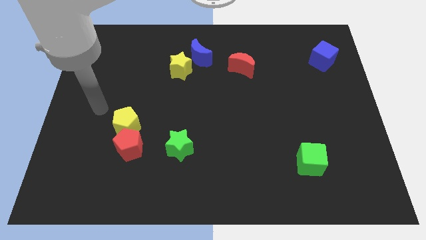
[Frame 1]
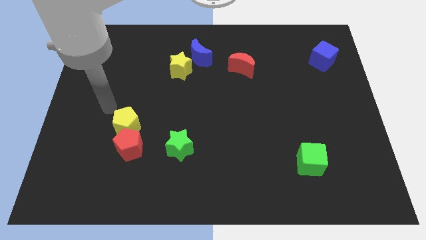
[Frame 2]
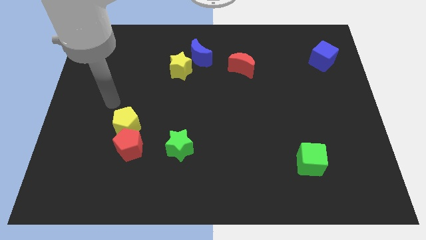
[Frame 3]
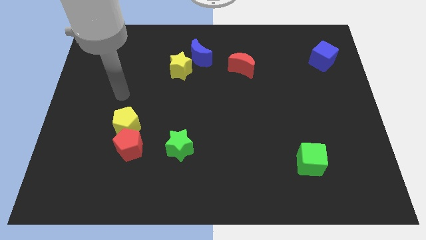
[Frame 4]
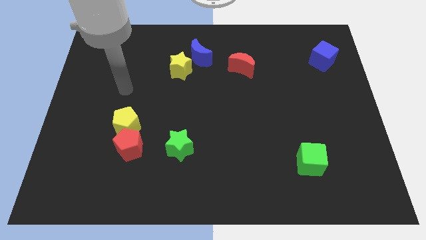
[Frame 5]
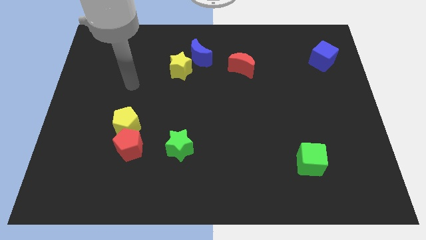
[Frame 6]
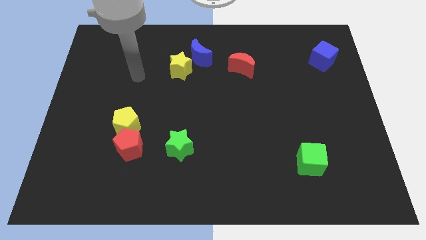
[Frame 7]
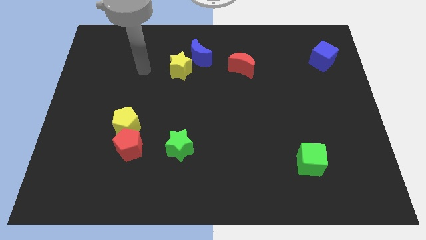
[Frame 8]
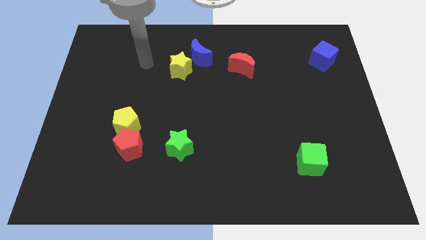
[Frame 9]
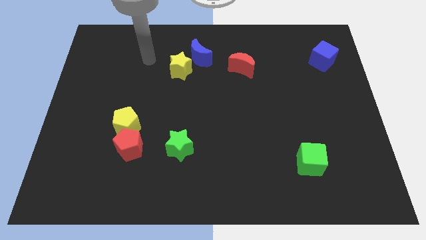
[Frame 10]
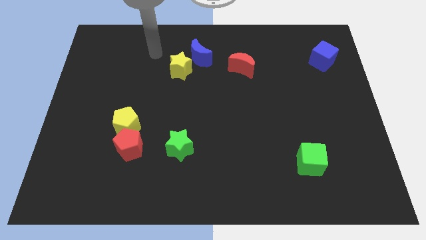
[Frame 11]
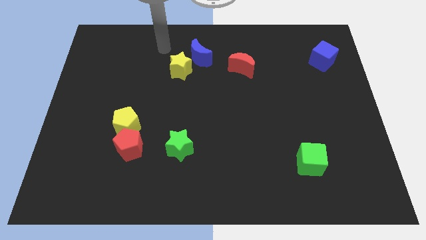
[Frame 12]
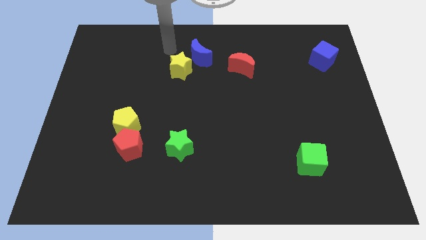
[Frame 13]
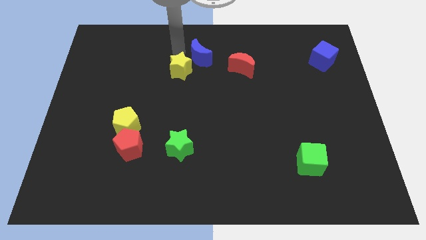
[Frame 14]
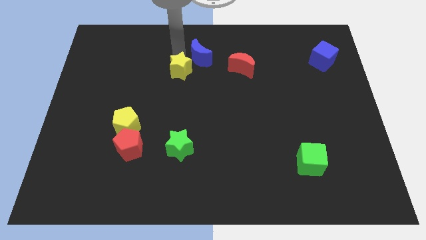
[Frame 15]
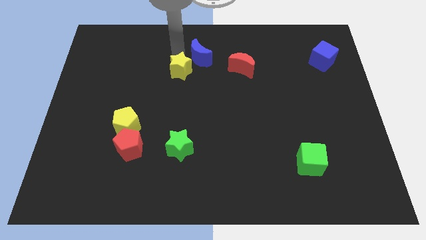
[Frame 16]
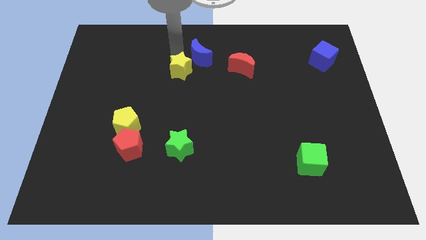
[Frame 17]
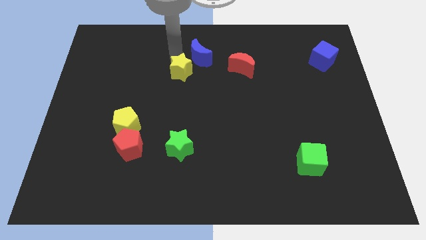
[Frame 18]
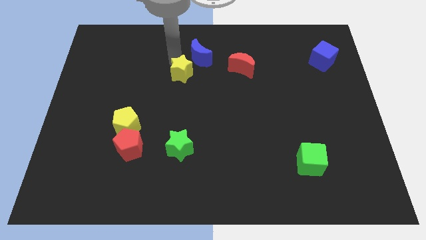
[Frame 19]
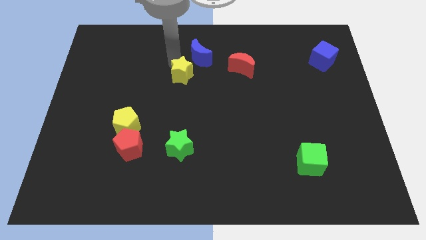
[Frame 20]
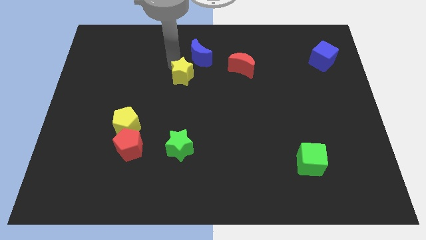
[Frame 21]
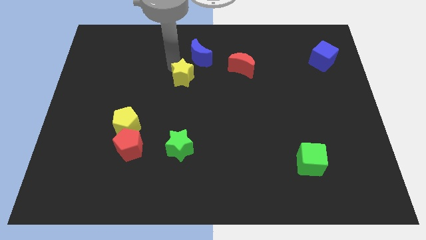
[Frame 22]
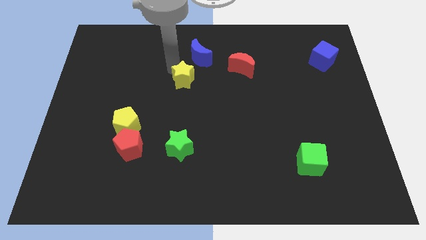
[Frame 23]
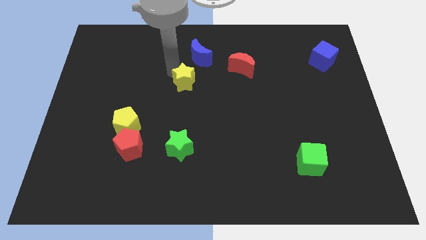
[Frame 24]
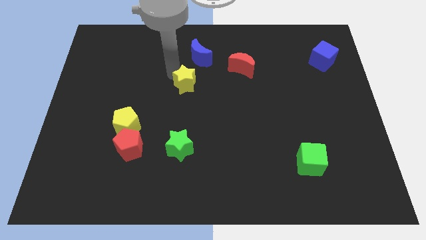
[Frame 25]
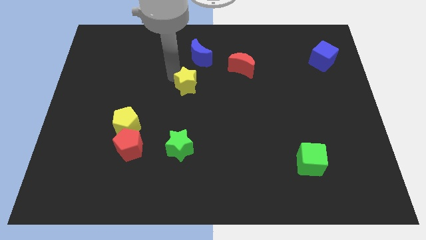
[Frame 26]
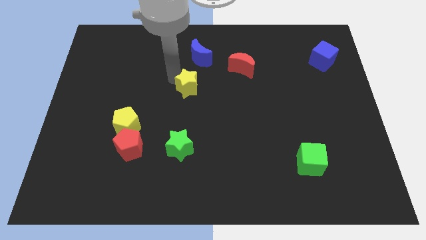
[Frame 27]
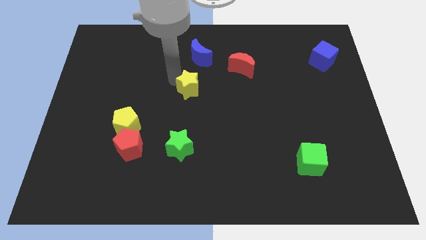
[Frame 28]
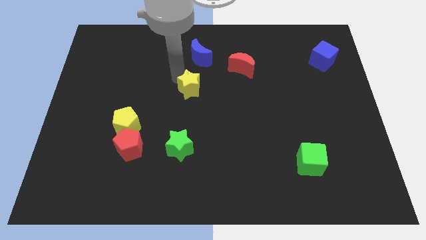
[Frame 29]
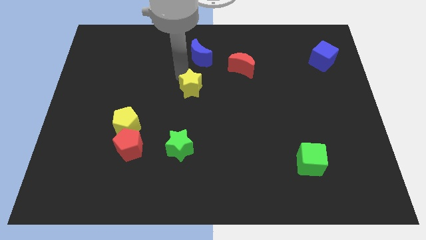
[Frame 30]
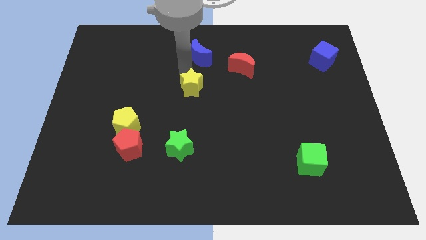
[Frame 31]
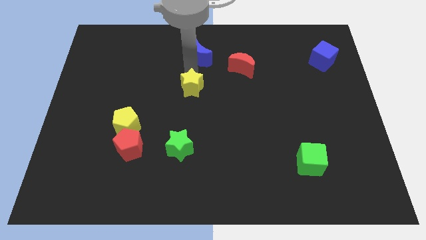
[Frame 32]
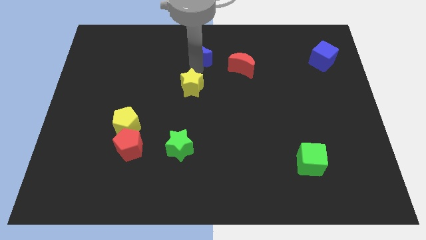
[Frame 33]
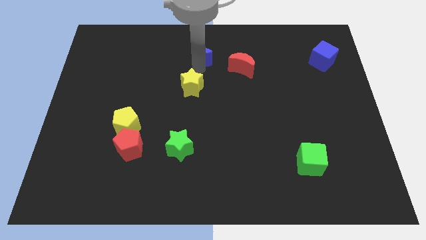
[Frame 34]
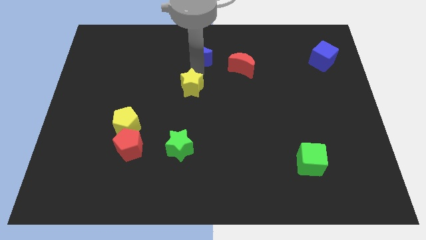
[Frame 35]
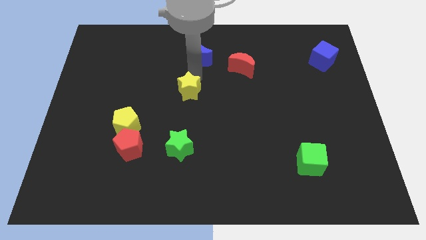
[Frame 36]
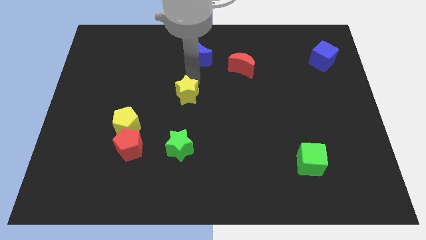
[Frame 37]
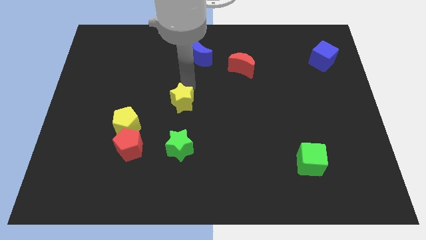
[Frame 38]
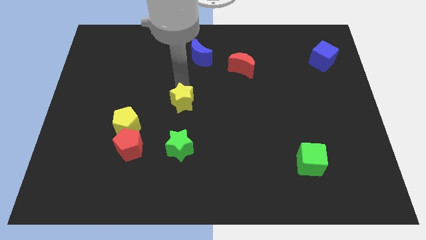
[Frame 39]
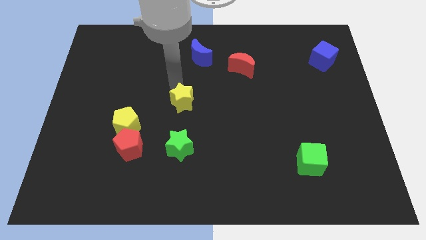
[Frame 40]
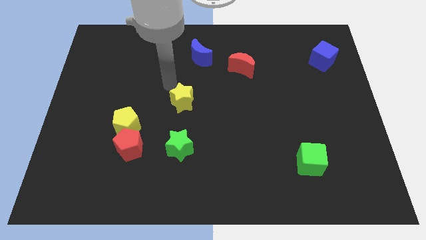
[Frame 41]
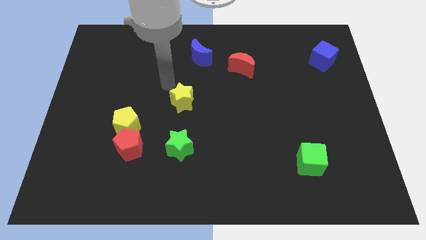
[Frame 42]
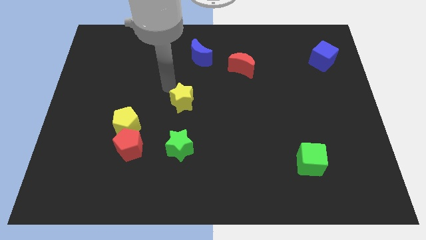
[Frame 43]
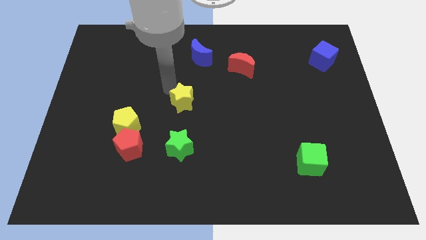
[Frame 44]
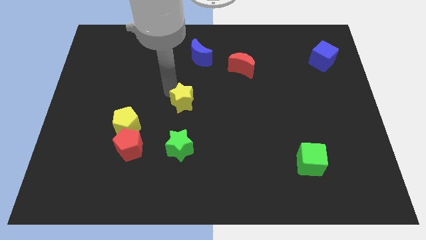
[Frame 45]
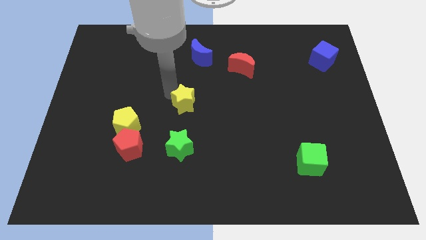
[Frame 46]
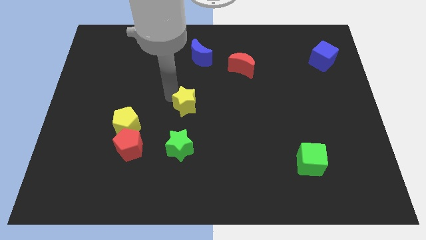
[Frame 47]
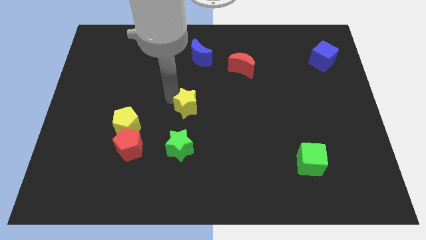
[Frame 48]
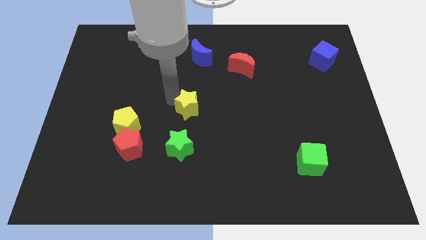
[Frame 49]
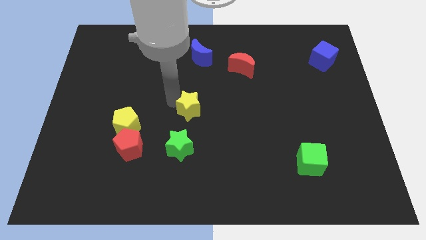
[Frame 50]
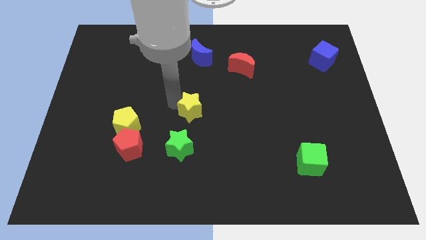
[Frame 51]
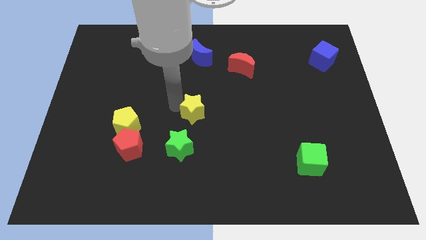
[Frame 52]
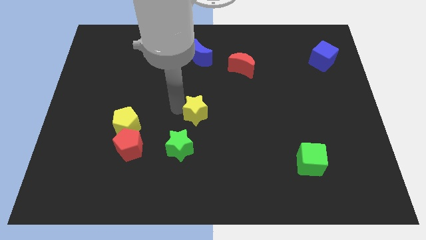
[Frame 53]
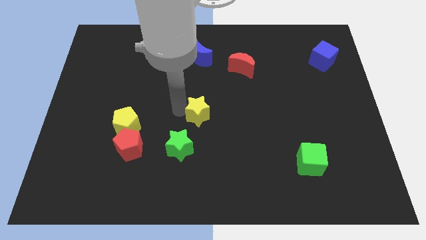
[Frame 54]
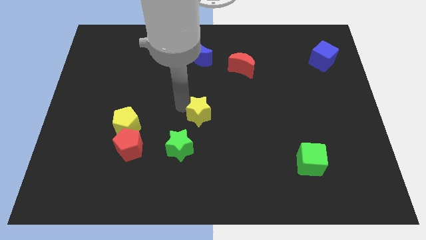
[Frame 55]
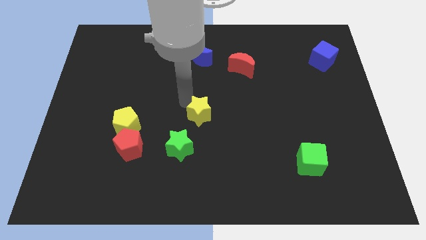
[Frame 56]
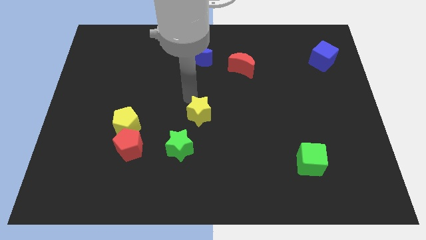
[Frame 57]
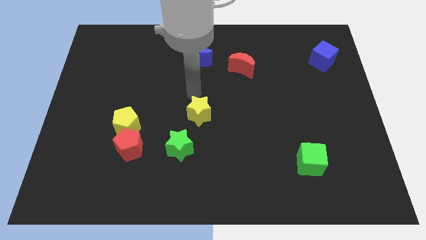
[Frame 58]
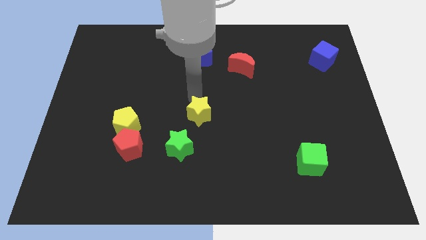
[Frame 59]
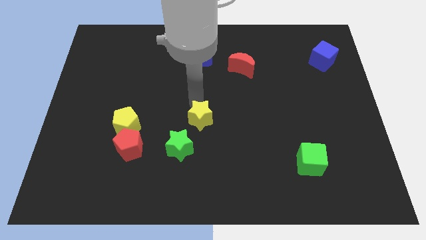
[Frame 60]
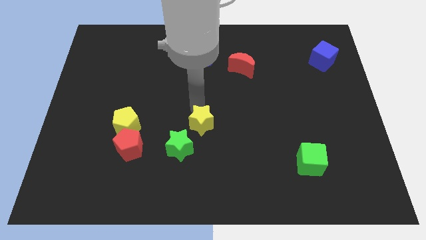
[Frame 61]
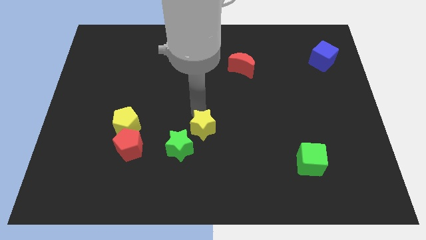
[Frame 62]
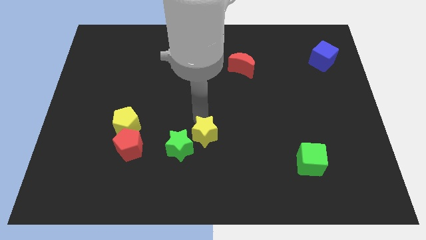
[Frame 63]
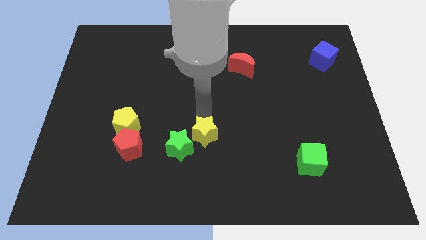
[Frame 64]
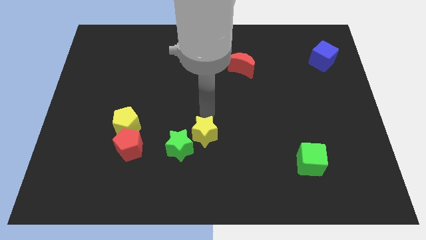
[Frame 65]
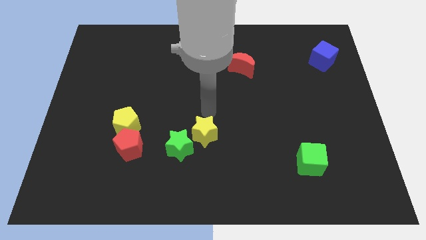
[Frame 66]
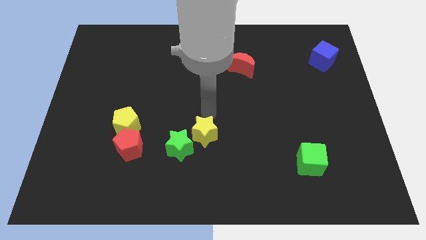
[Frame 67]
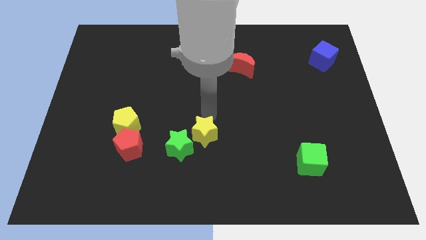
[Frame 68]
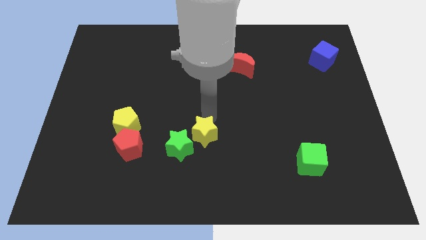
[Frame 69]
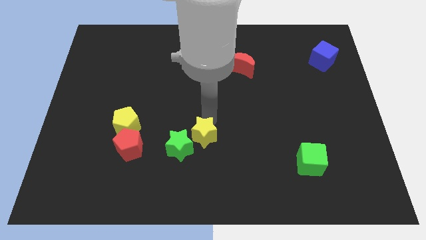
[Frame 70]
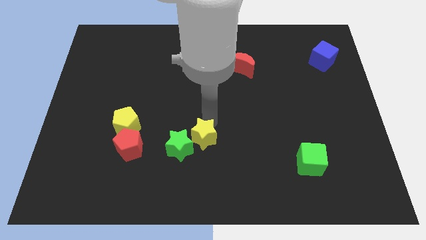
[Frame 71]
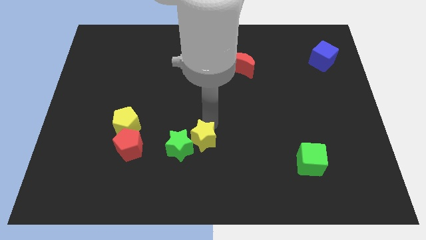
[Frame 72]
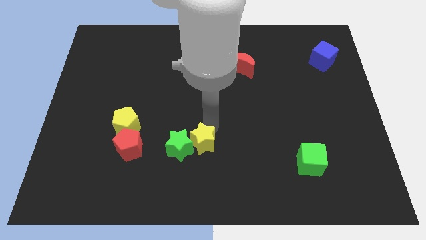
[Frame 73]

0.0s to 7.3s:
slide the yellow star to the bottom right side of the green star
